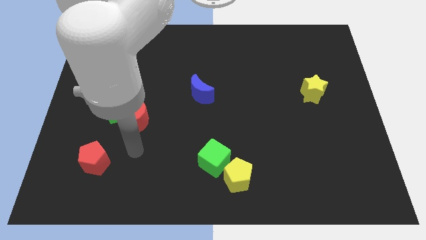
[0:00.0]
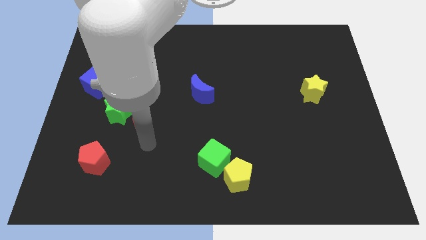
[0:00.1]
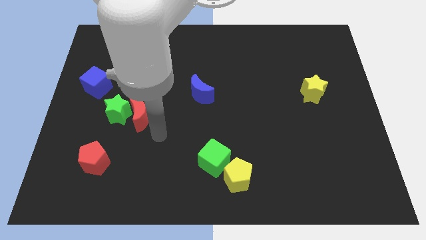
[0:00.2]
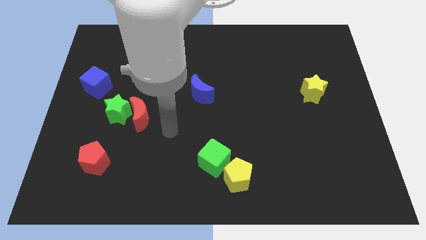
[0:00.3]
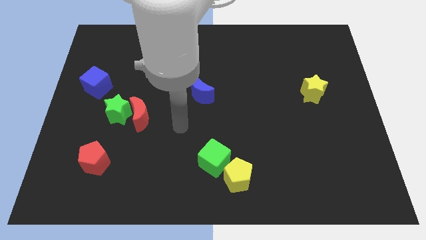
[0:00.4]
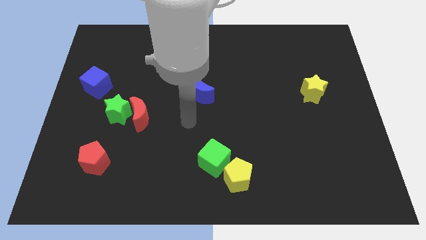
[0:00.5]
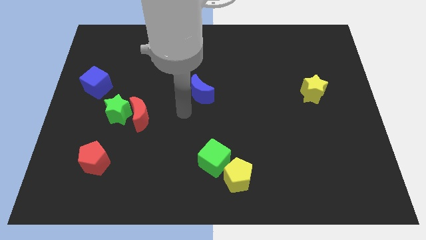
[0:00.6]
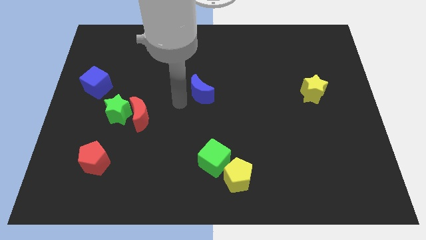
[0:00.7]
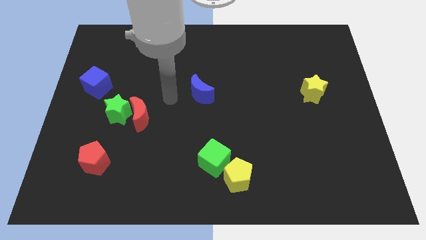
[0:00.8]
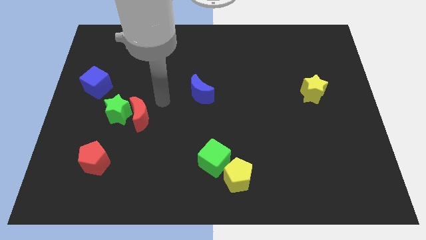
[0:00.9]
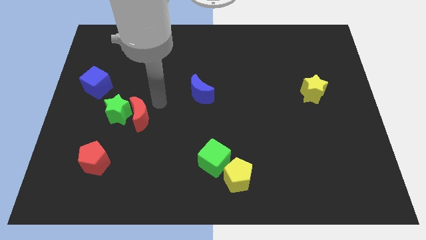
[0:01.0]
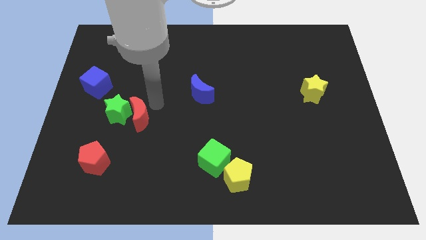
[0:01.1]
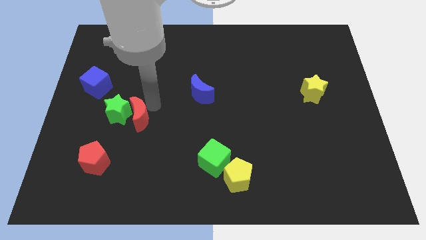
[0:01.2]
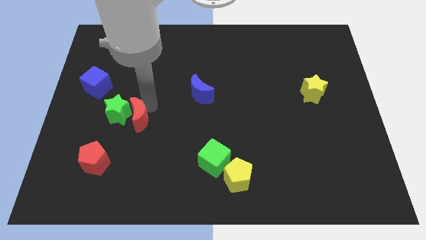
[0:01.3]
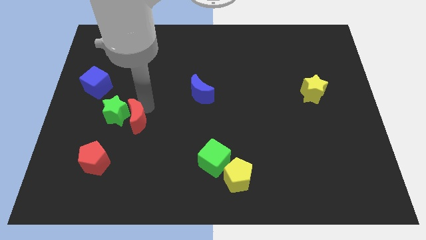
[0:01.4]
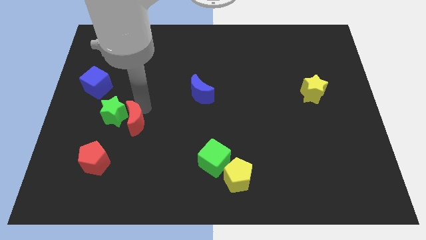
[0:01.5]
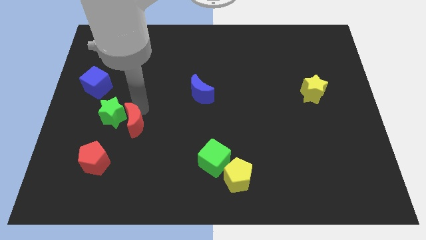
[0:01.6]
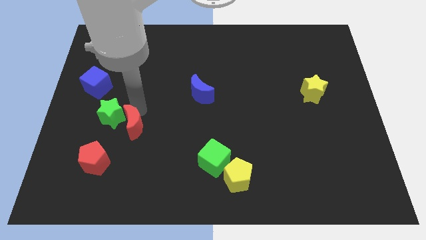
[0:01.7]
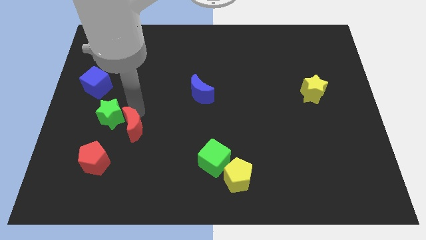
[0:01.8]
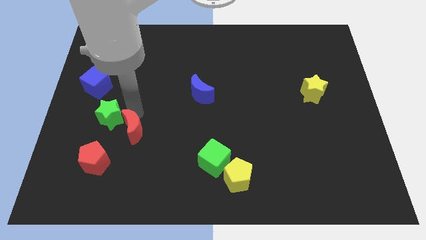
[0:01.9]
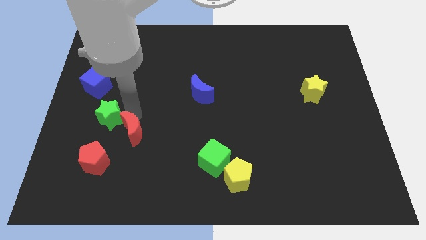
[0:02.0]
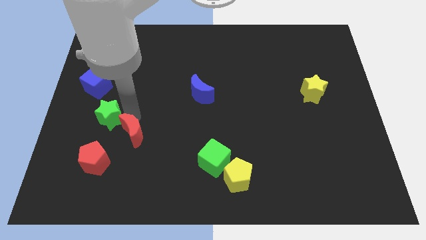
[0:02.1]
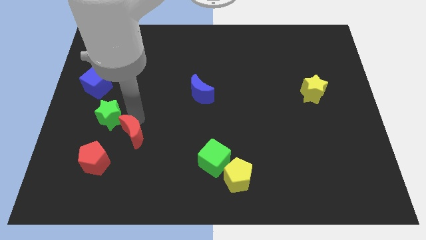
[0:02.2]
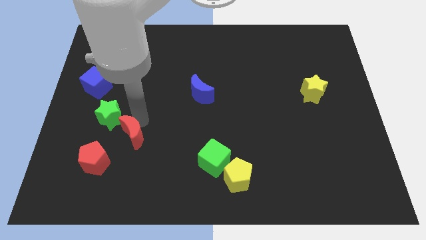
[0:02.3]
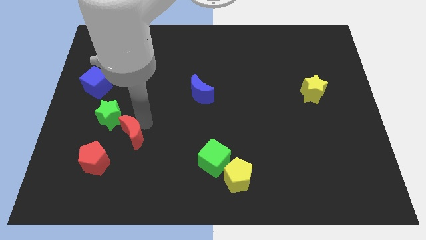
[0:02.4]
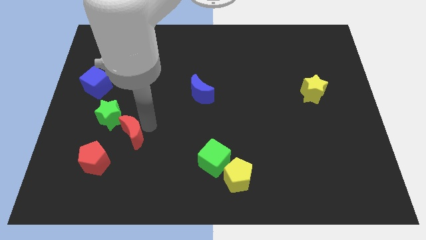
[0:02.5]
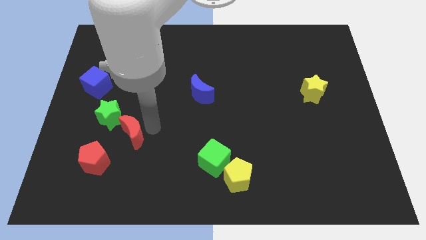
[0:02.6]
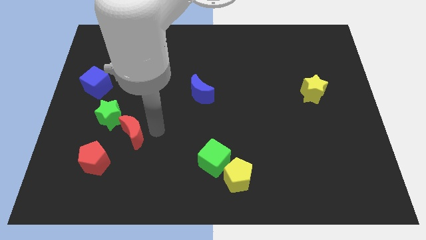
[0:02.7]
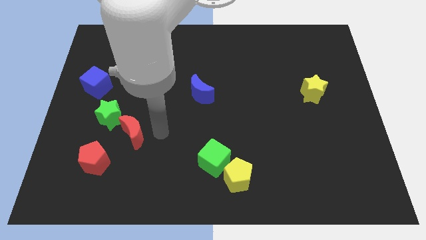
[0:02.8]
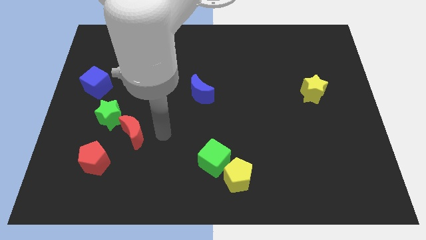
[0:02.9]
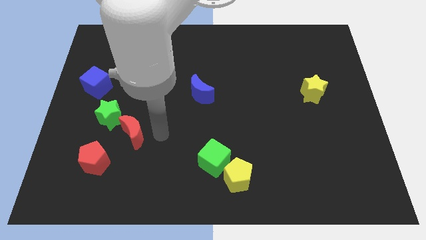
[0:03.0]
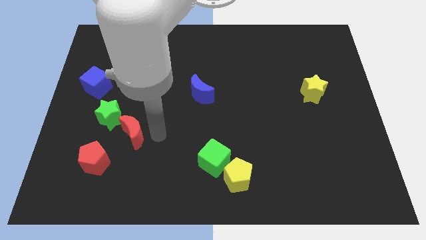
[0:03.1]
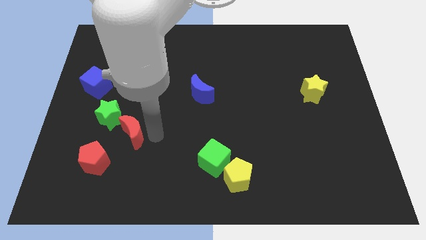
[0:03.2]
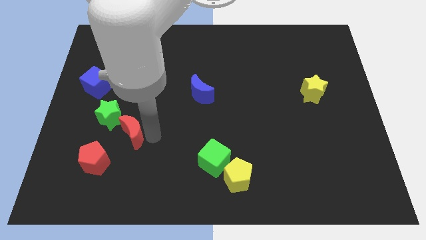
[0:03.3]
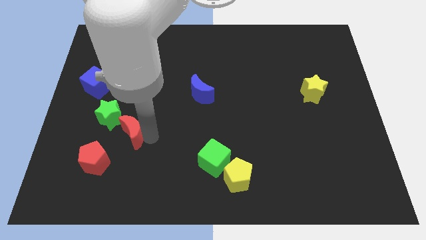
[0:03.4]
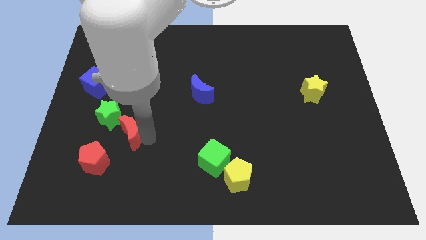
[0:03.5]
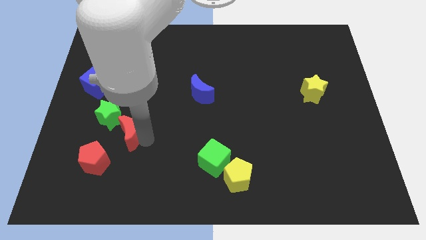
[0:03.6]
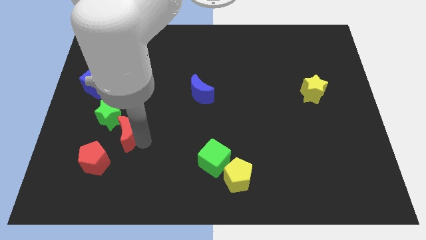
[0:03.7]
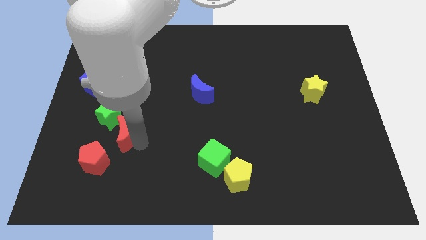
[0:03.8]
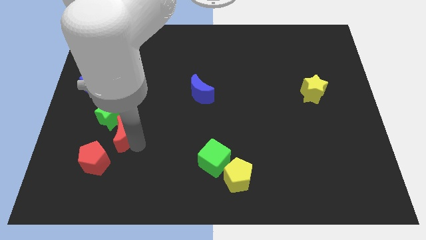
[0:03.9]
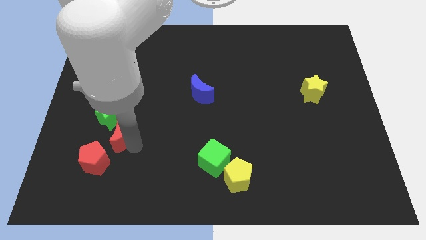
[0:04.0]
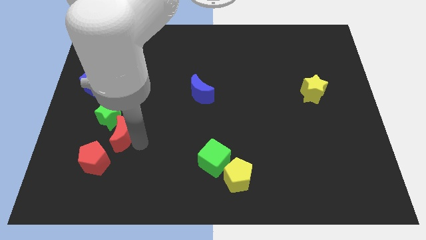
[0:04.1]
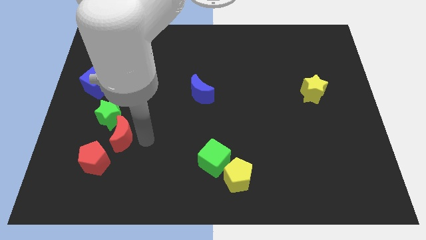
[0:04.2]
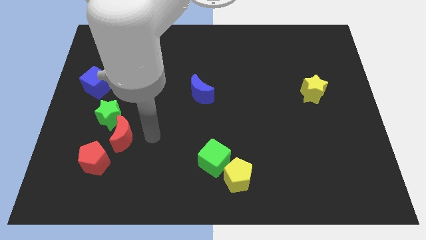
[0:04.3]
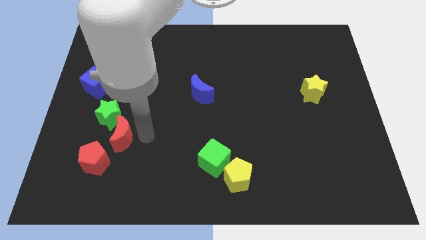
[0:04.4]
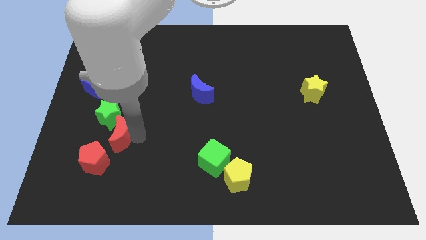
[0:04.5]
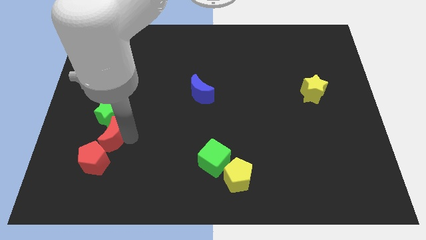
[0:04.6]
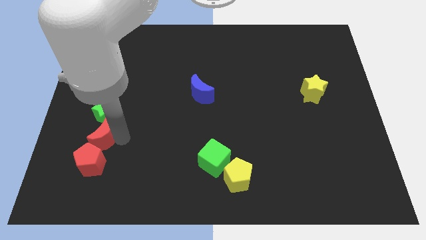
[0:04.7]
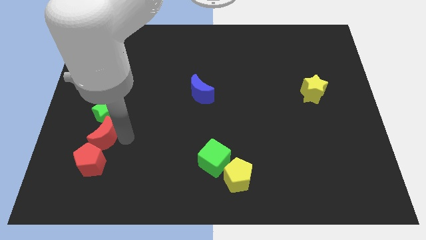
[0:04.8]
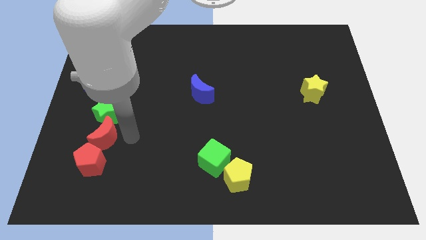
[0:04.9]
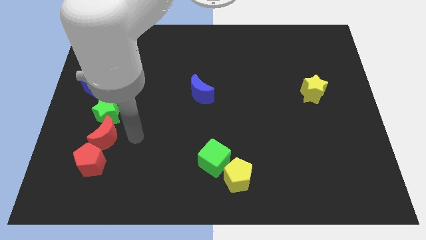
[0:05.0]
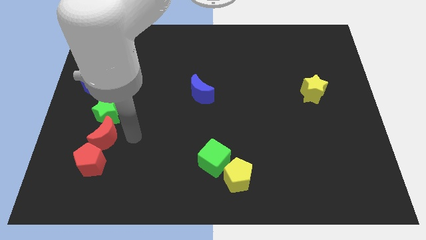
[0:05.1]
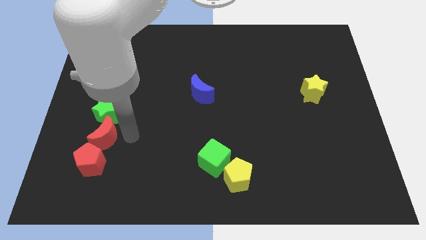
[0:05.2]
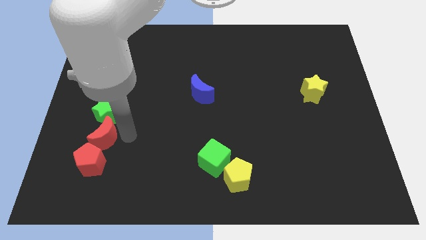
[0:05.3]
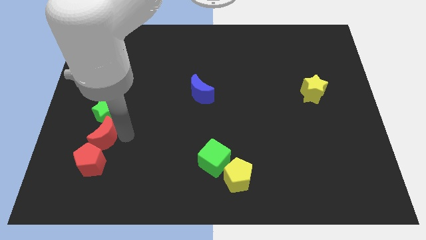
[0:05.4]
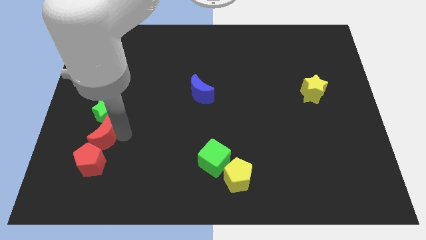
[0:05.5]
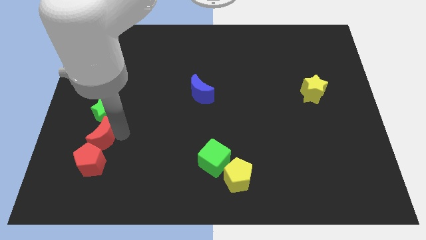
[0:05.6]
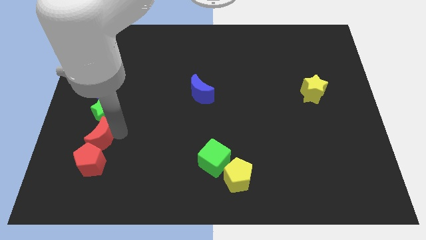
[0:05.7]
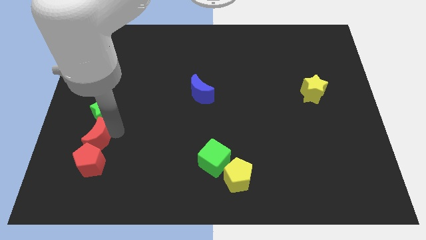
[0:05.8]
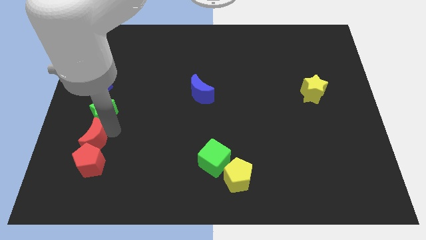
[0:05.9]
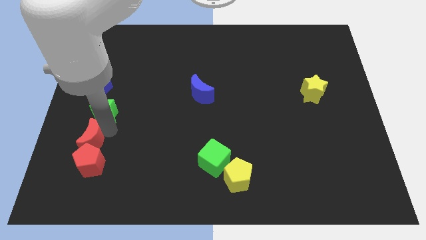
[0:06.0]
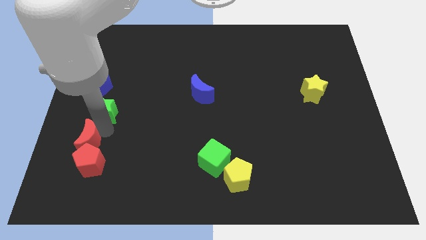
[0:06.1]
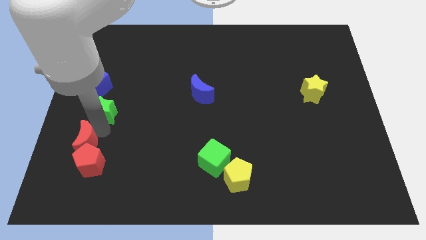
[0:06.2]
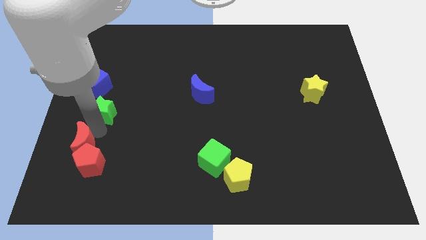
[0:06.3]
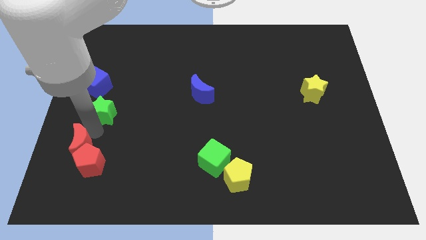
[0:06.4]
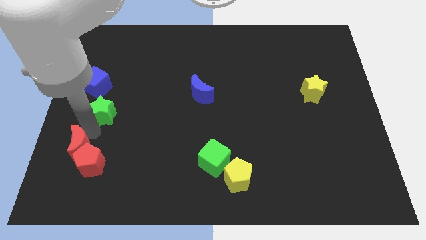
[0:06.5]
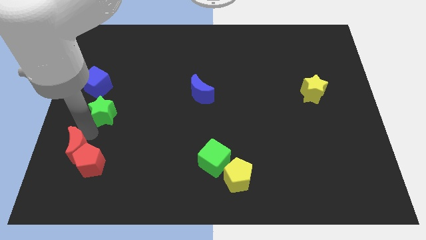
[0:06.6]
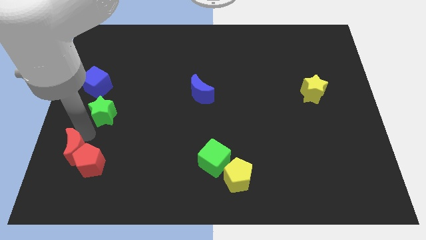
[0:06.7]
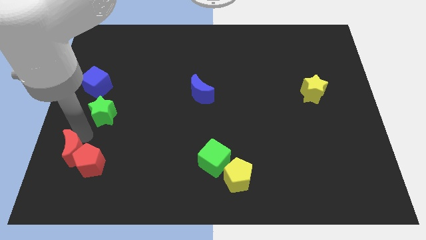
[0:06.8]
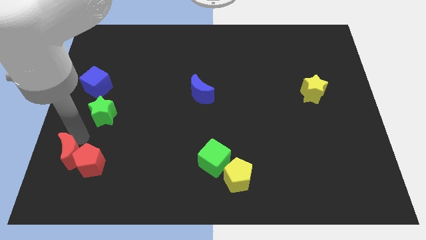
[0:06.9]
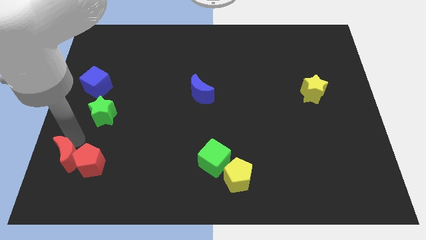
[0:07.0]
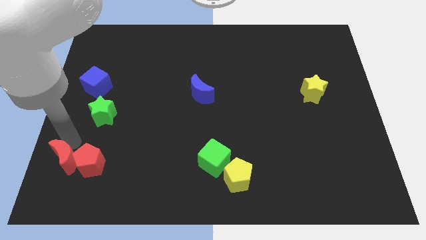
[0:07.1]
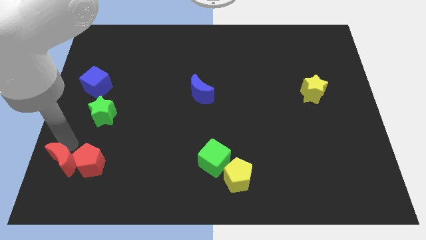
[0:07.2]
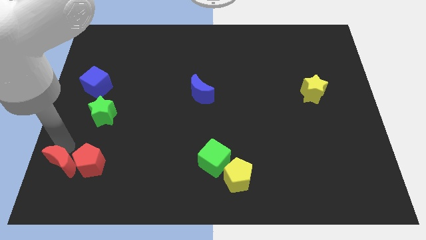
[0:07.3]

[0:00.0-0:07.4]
put the red moon to the bottom left of the board
